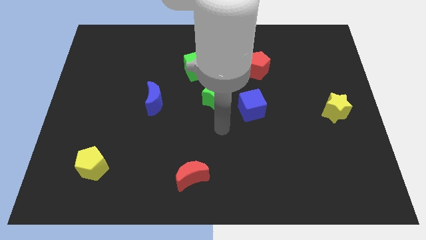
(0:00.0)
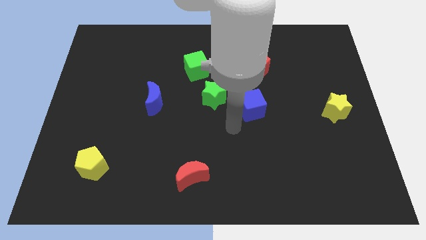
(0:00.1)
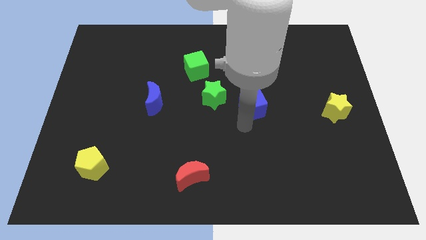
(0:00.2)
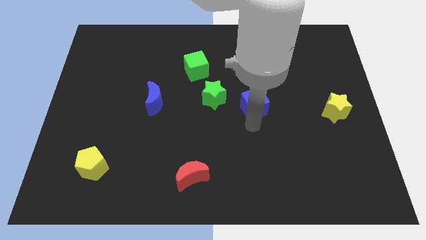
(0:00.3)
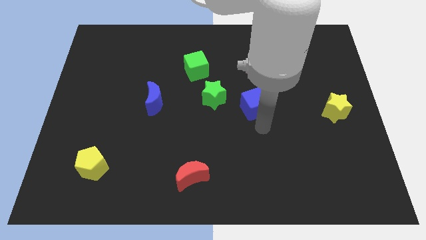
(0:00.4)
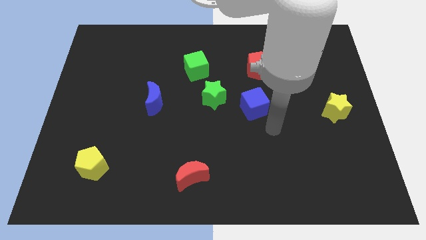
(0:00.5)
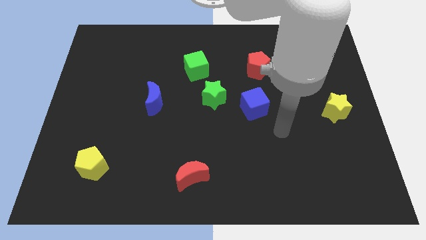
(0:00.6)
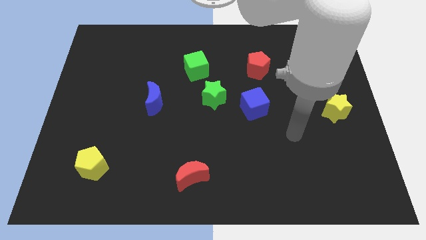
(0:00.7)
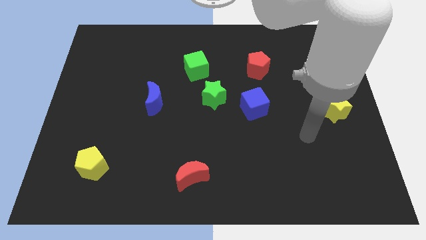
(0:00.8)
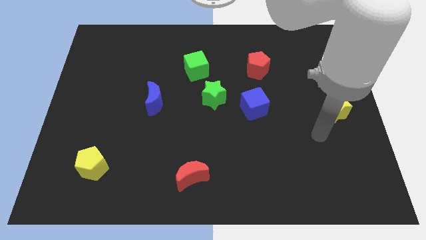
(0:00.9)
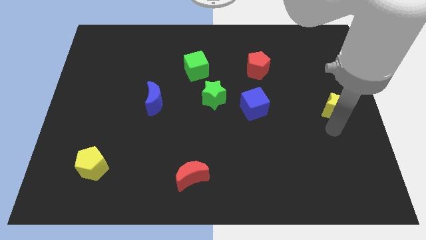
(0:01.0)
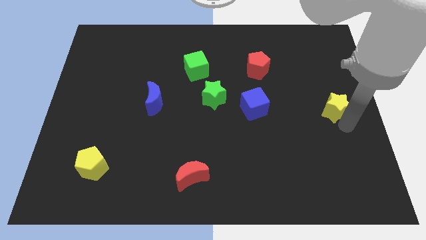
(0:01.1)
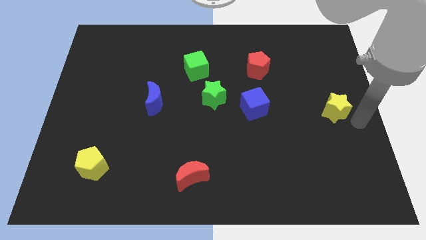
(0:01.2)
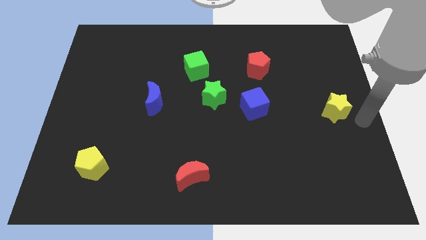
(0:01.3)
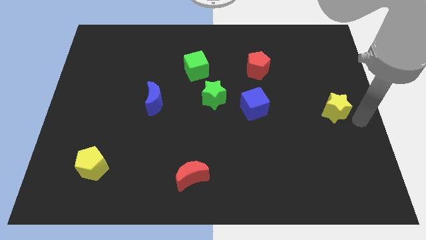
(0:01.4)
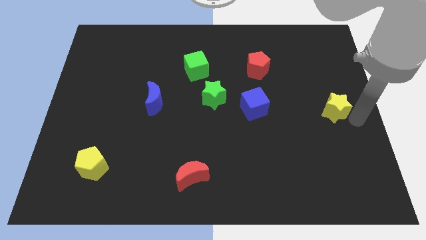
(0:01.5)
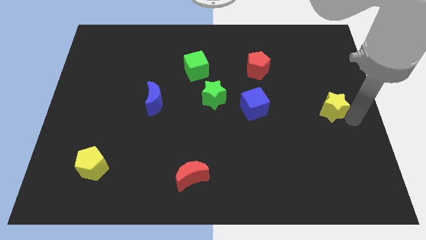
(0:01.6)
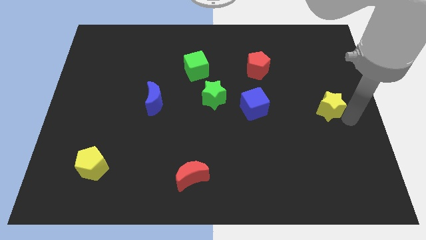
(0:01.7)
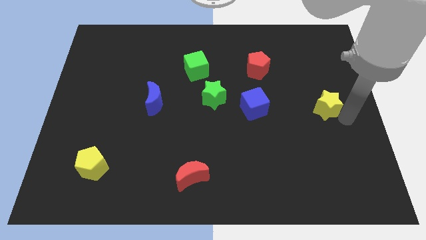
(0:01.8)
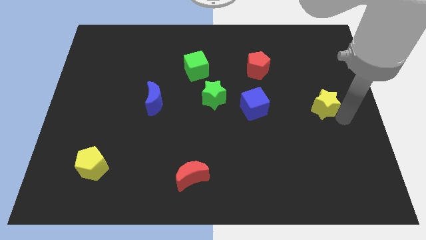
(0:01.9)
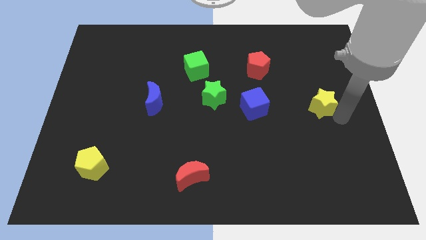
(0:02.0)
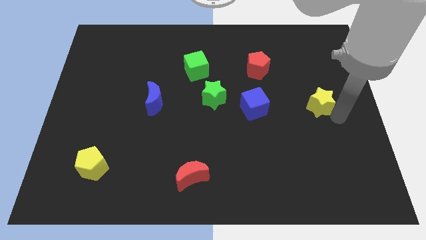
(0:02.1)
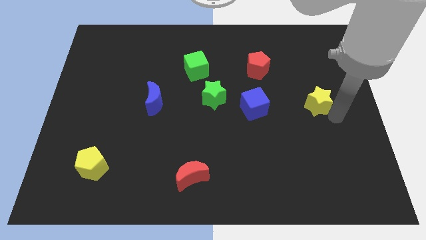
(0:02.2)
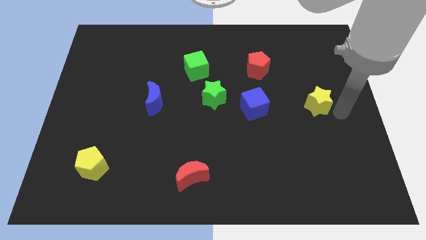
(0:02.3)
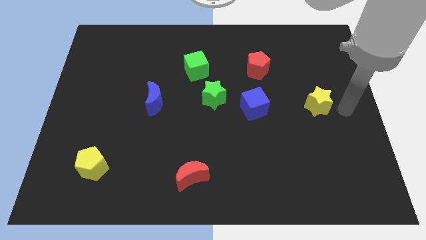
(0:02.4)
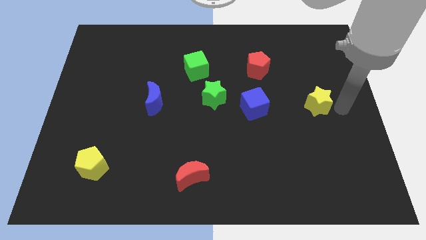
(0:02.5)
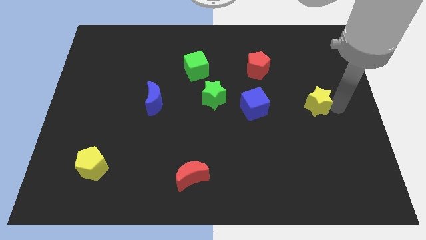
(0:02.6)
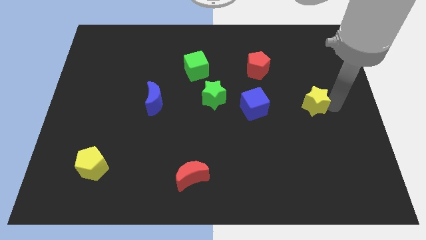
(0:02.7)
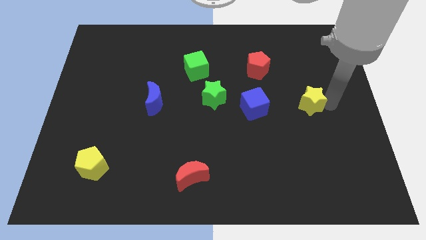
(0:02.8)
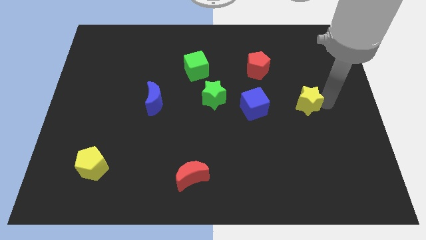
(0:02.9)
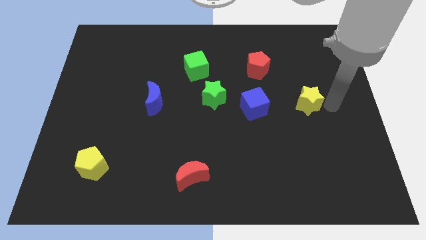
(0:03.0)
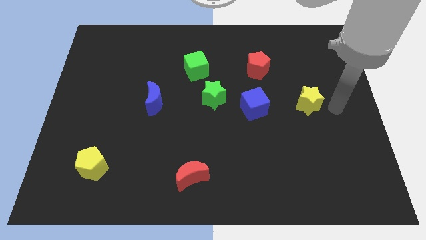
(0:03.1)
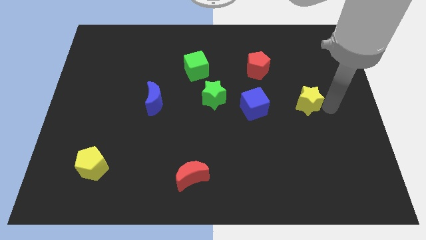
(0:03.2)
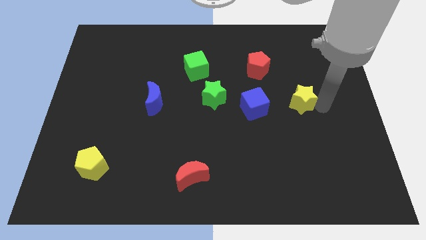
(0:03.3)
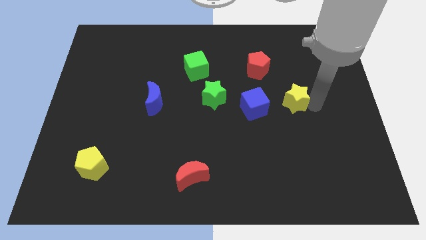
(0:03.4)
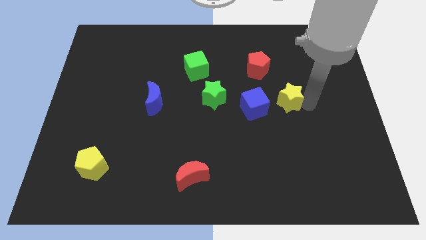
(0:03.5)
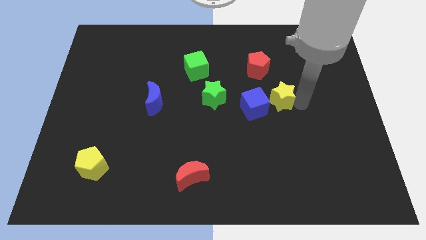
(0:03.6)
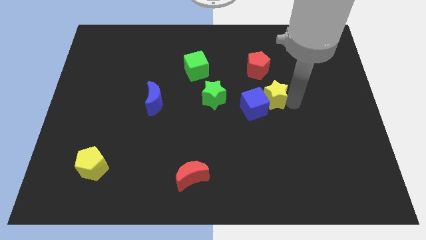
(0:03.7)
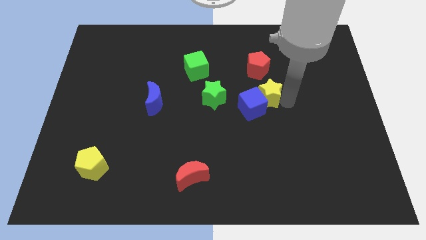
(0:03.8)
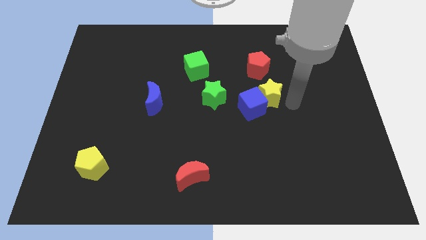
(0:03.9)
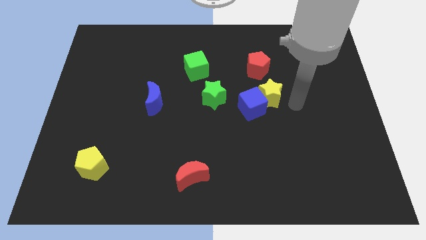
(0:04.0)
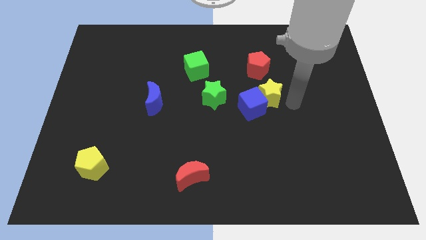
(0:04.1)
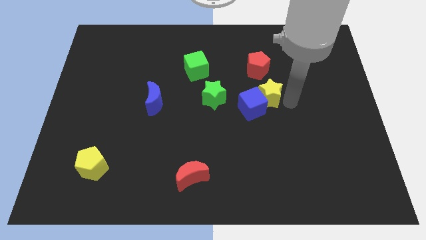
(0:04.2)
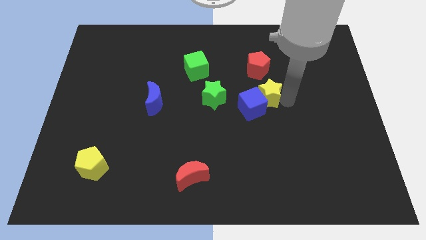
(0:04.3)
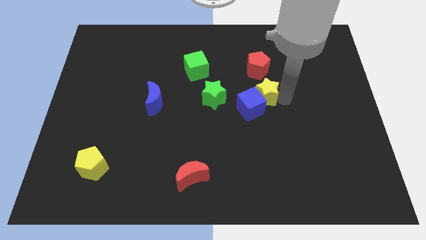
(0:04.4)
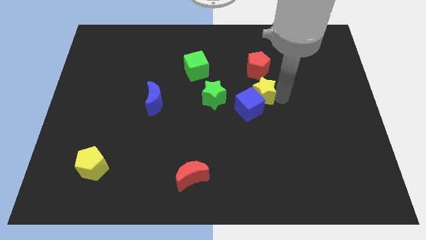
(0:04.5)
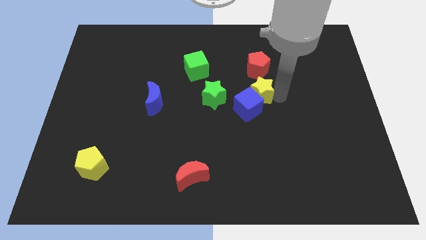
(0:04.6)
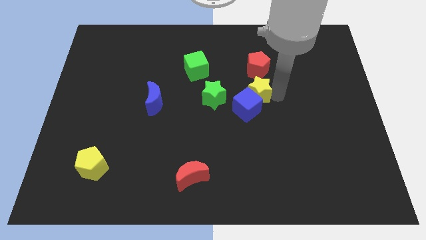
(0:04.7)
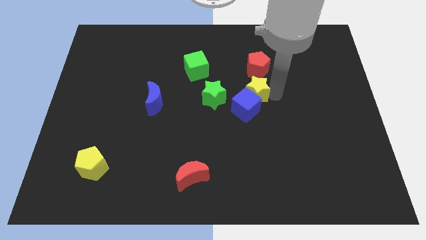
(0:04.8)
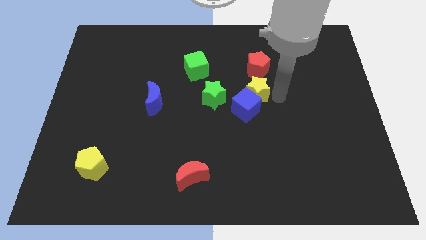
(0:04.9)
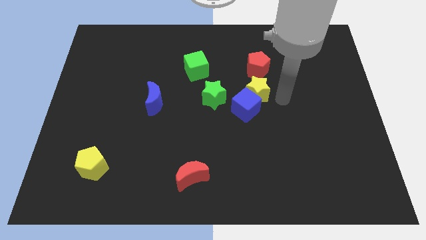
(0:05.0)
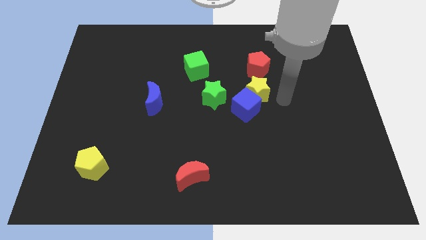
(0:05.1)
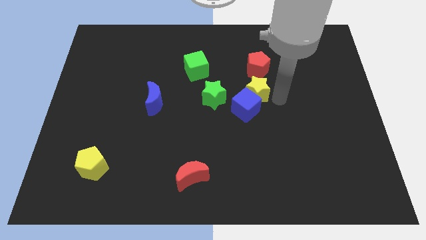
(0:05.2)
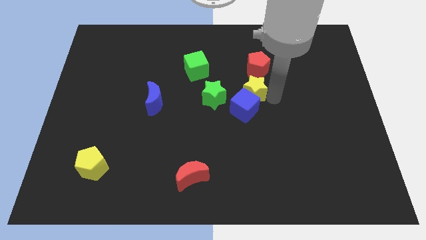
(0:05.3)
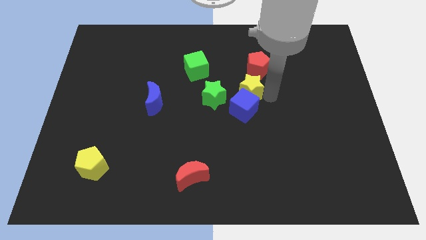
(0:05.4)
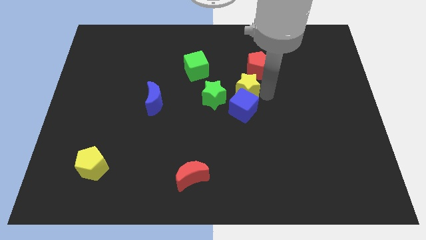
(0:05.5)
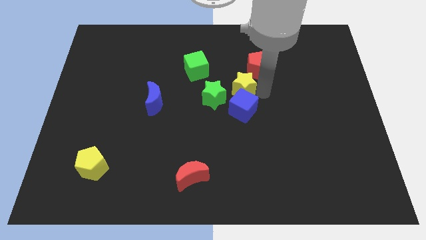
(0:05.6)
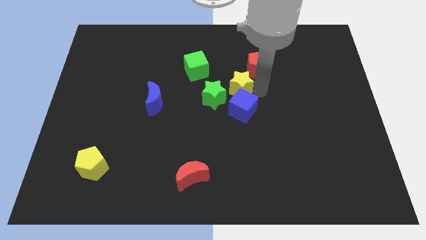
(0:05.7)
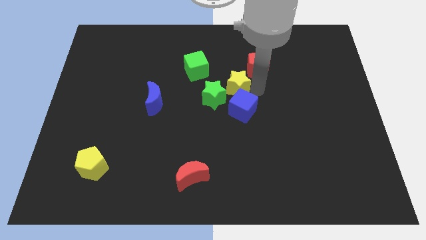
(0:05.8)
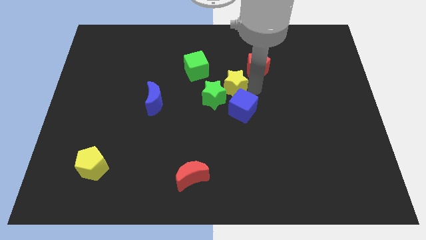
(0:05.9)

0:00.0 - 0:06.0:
push the yellow star to the green star
